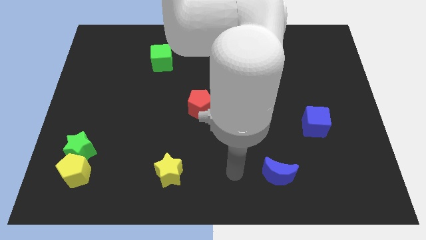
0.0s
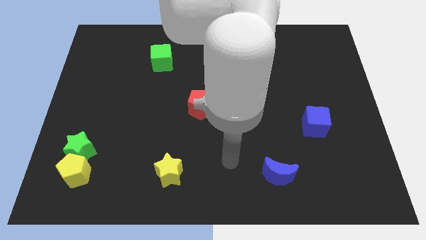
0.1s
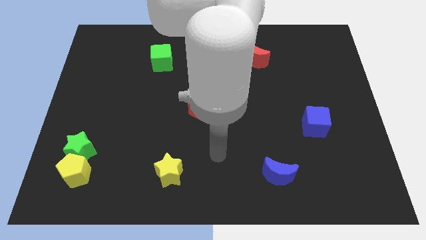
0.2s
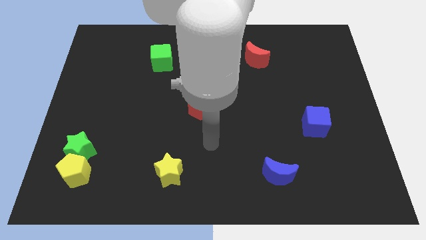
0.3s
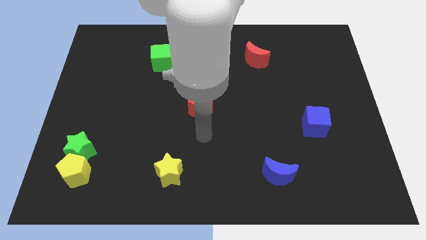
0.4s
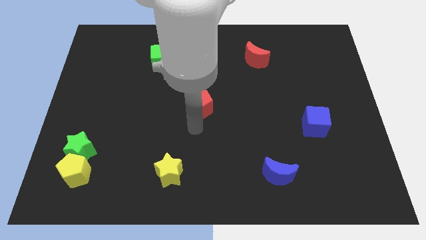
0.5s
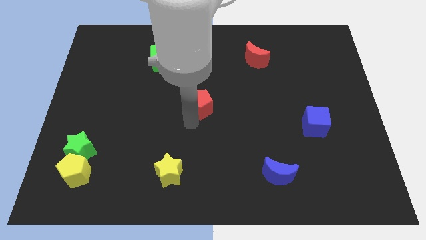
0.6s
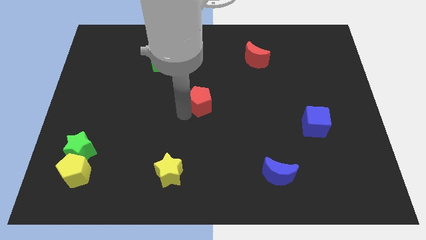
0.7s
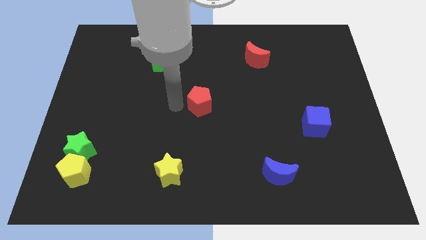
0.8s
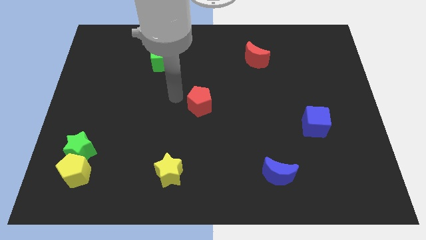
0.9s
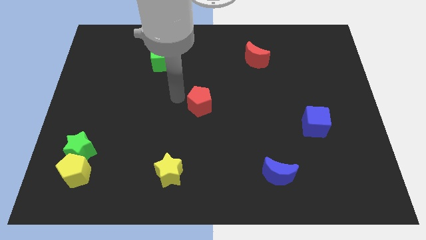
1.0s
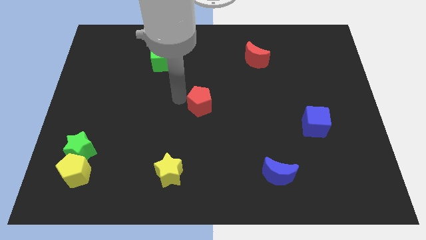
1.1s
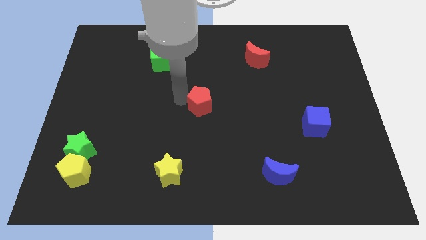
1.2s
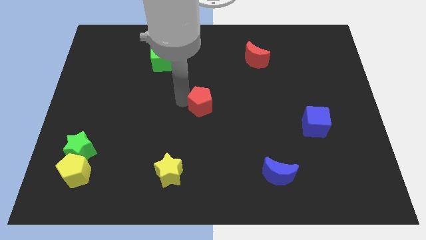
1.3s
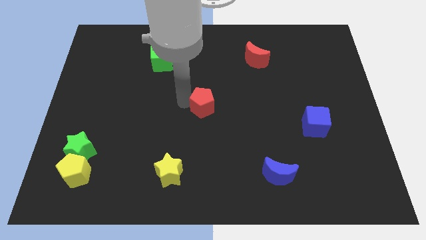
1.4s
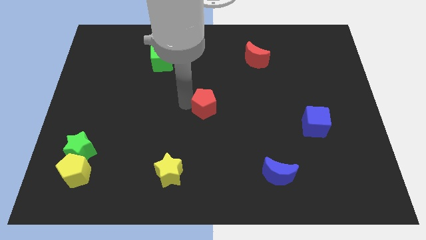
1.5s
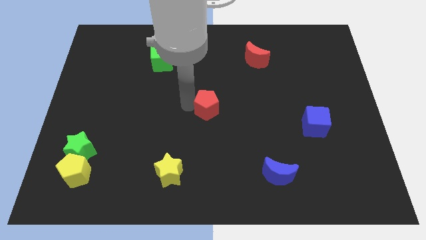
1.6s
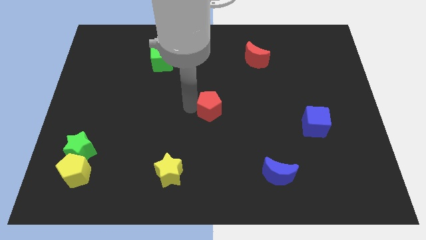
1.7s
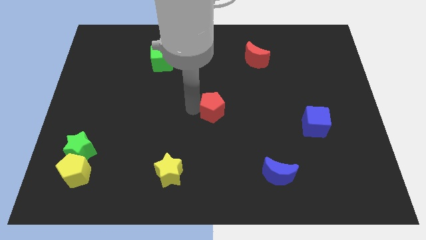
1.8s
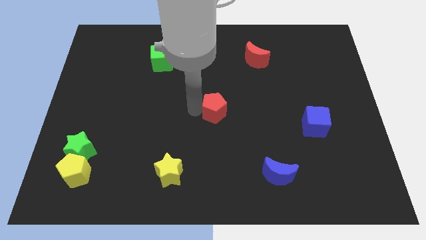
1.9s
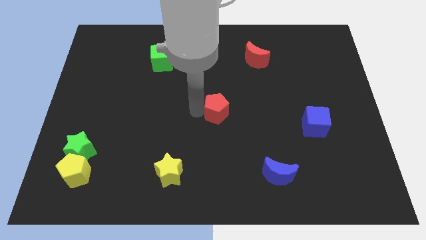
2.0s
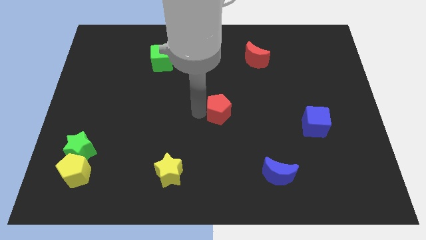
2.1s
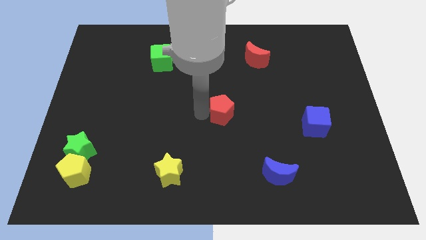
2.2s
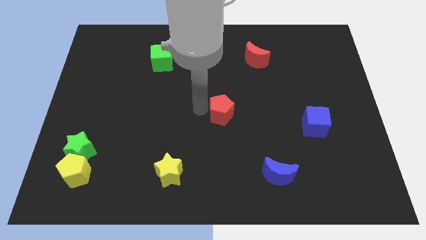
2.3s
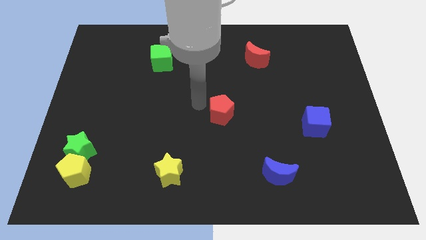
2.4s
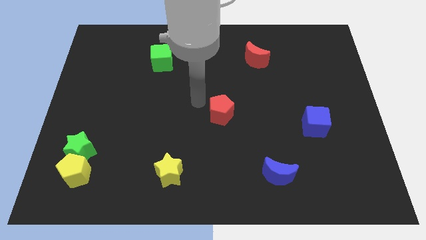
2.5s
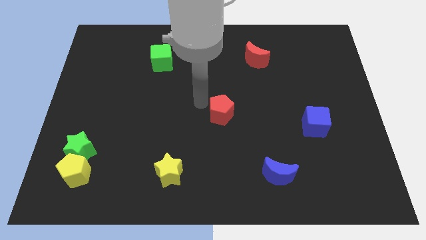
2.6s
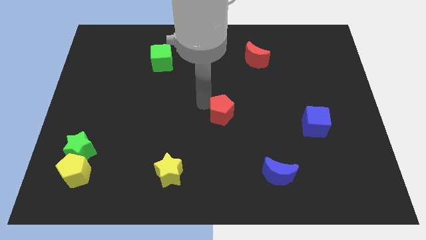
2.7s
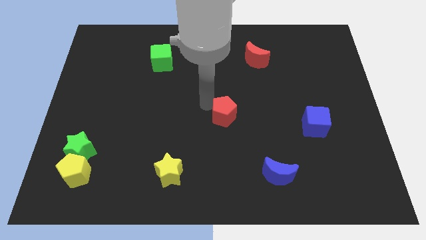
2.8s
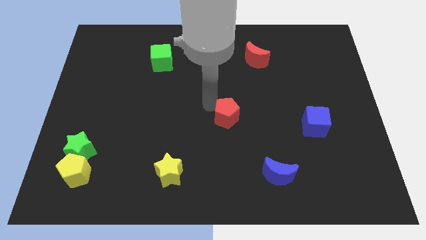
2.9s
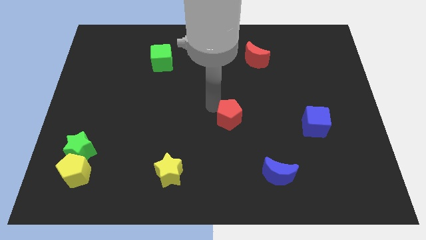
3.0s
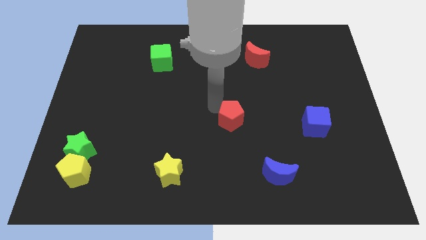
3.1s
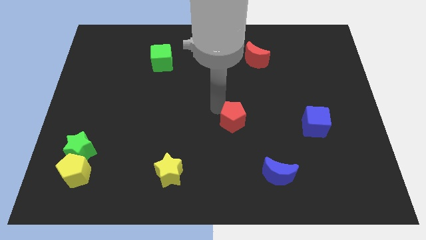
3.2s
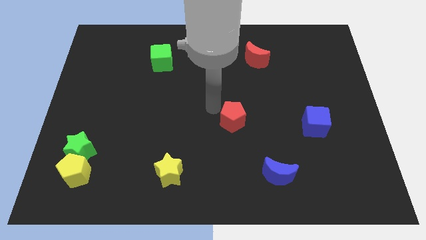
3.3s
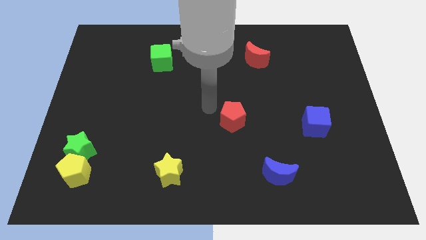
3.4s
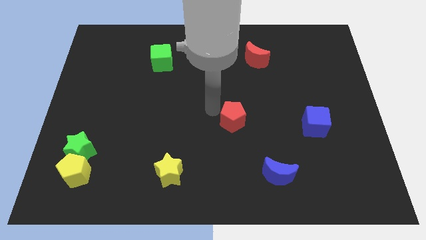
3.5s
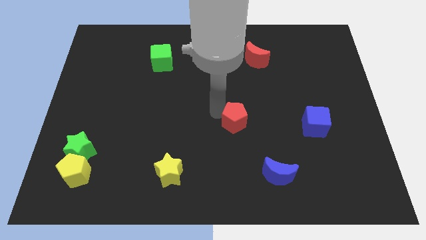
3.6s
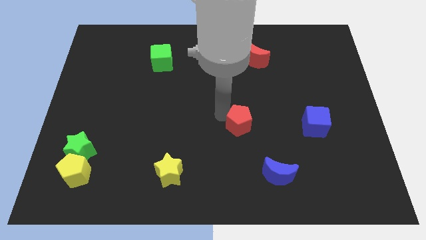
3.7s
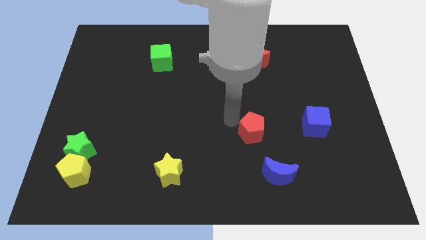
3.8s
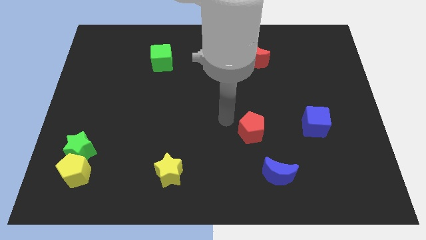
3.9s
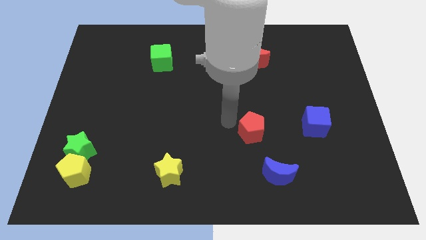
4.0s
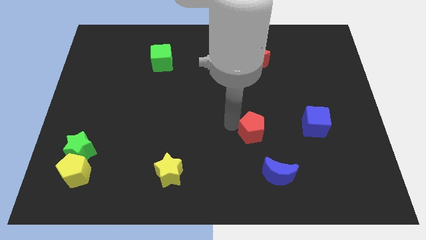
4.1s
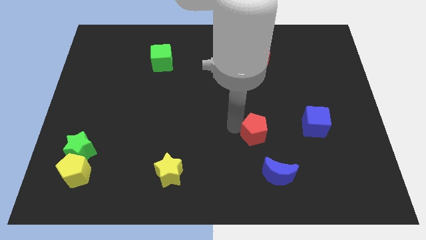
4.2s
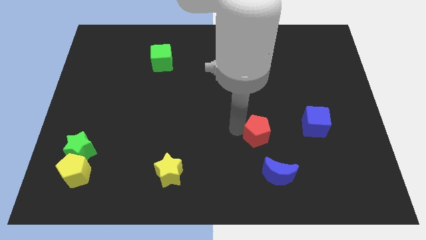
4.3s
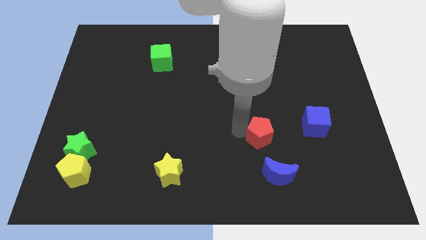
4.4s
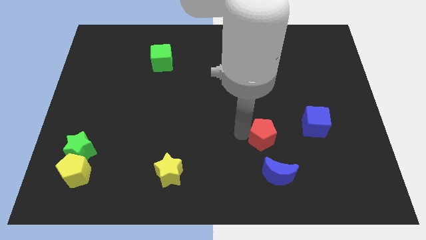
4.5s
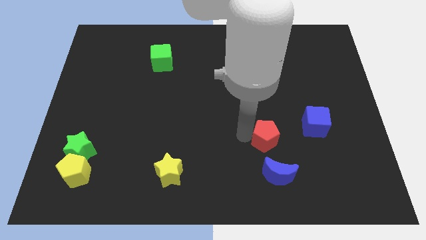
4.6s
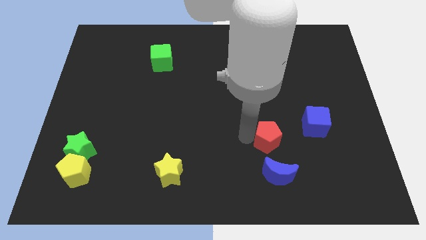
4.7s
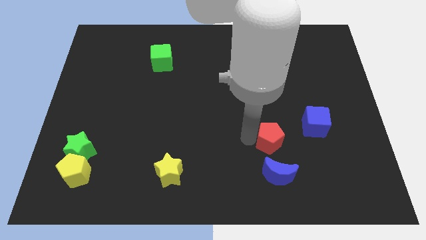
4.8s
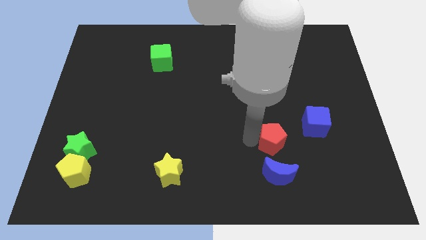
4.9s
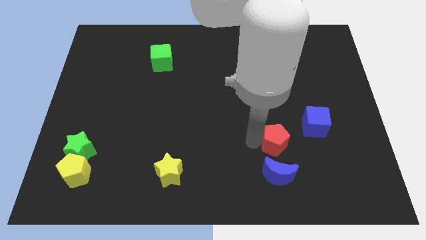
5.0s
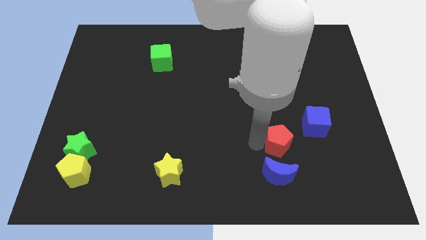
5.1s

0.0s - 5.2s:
move the red pentagon to the top right of the blue moon

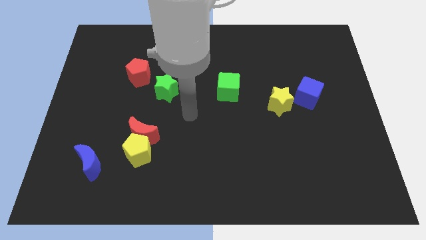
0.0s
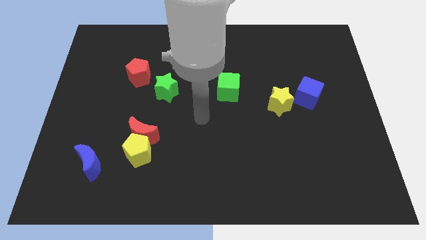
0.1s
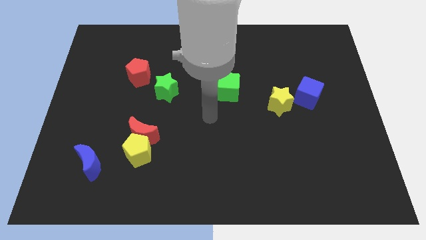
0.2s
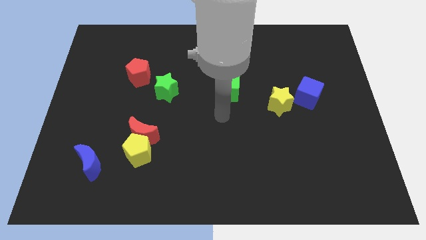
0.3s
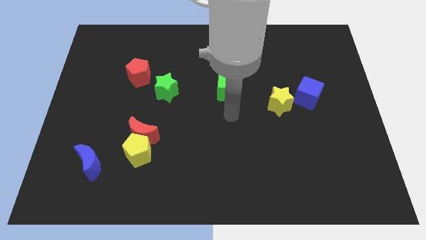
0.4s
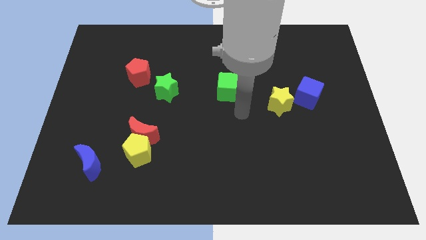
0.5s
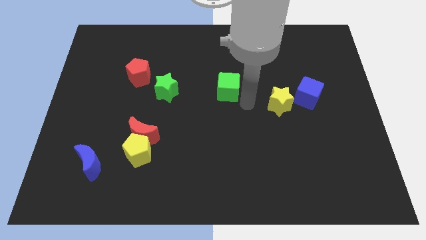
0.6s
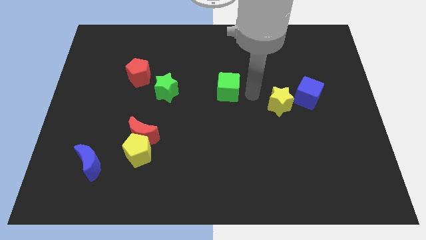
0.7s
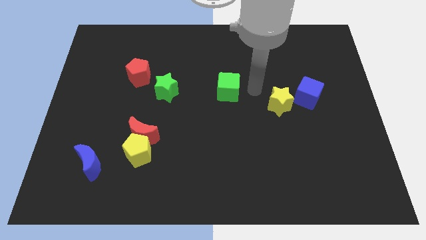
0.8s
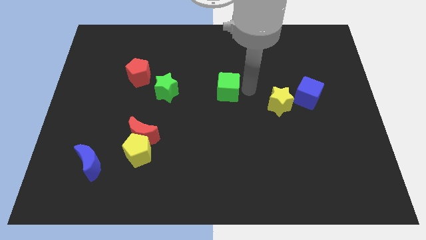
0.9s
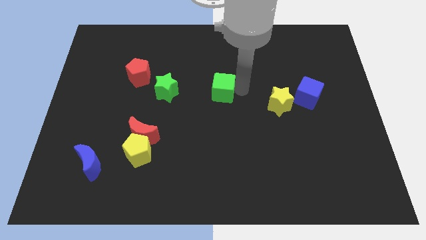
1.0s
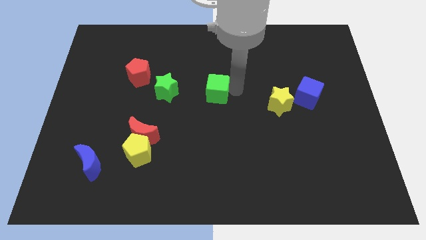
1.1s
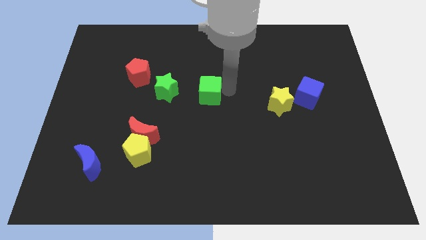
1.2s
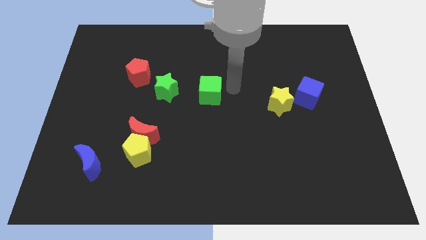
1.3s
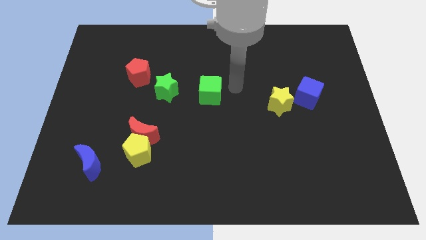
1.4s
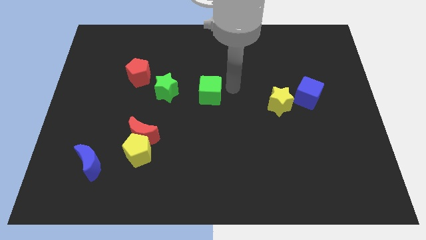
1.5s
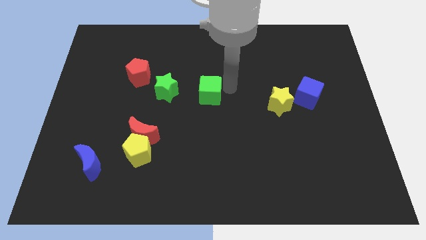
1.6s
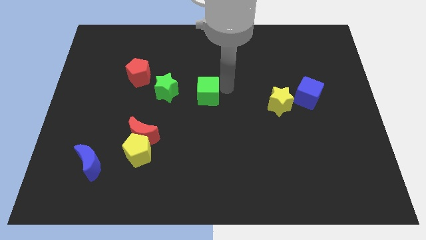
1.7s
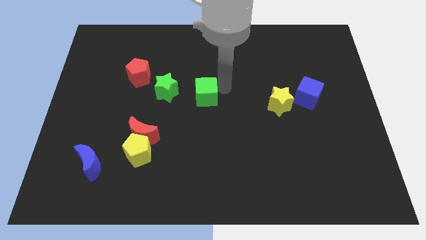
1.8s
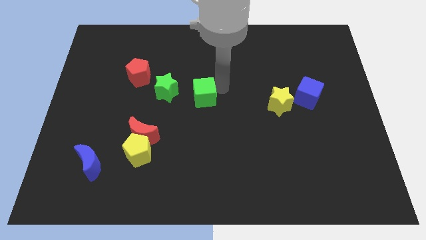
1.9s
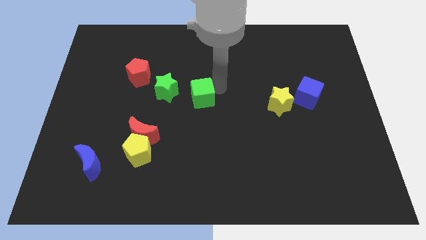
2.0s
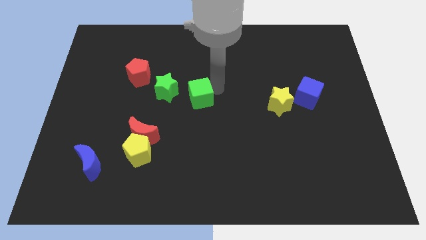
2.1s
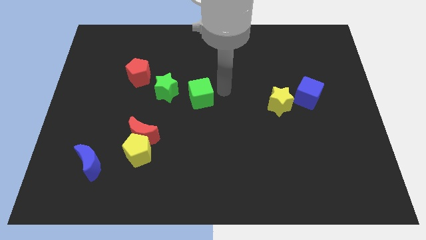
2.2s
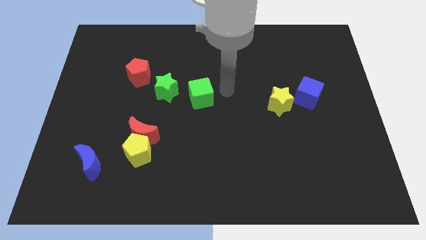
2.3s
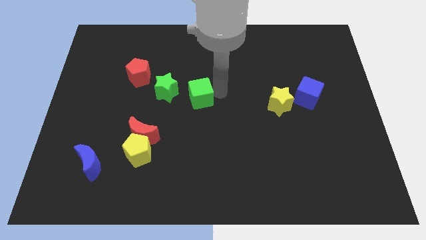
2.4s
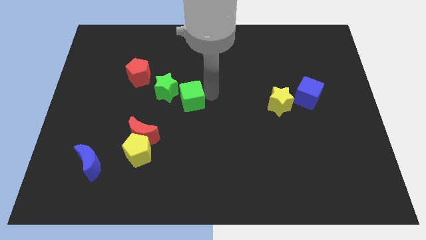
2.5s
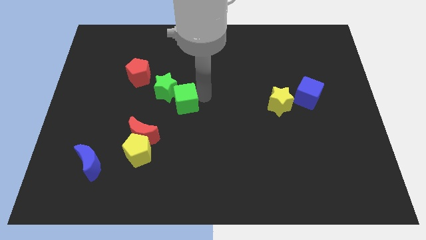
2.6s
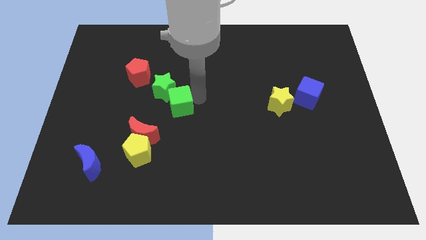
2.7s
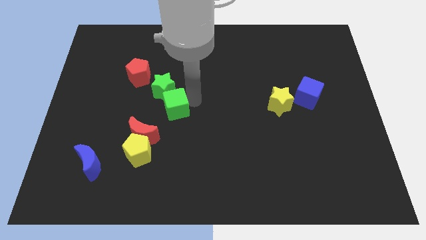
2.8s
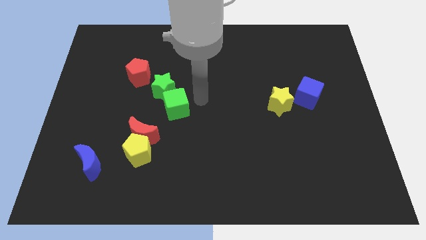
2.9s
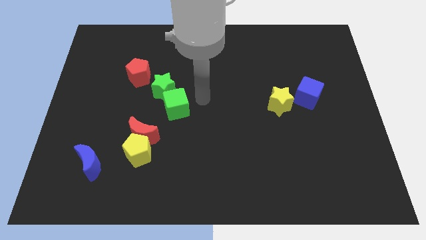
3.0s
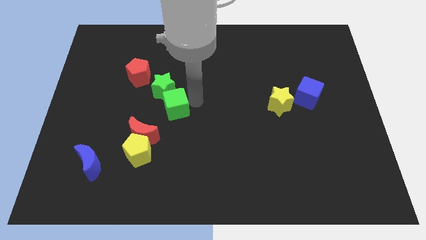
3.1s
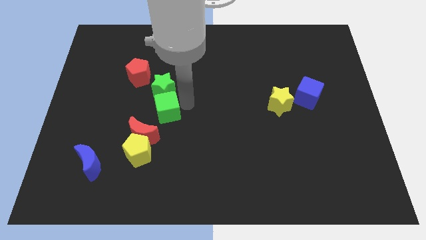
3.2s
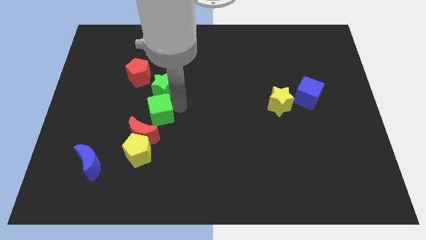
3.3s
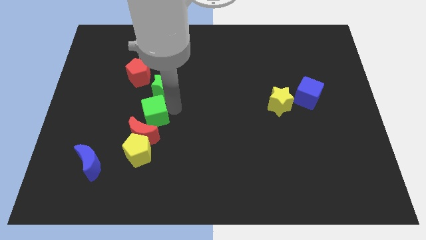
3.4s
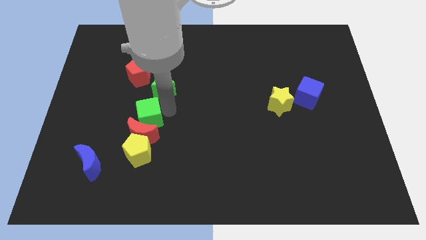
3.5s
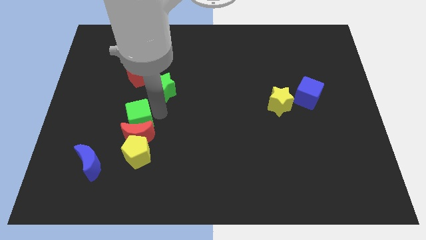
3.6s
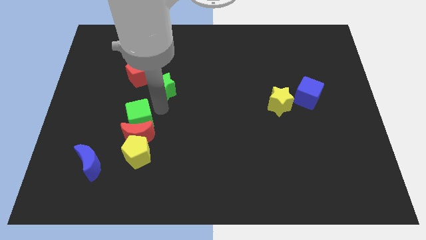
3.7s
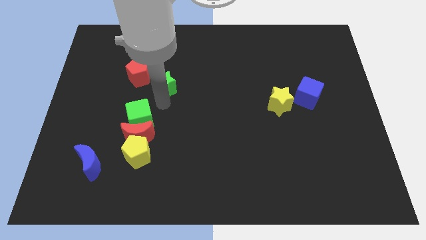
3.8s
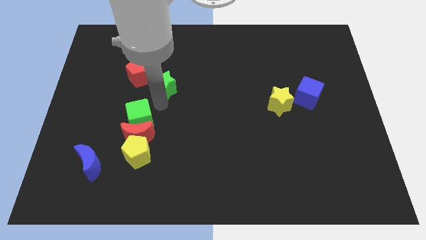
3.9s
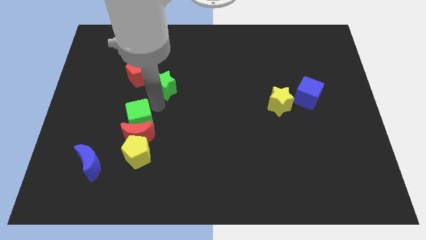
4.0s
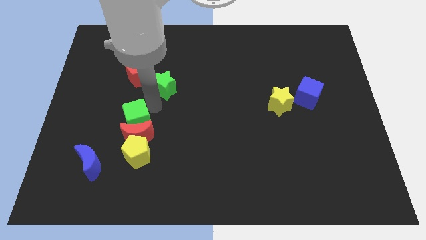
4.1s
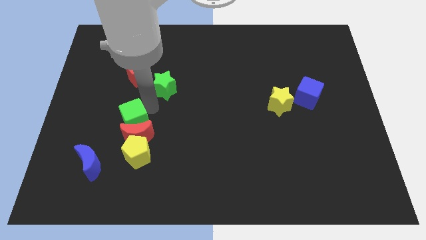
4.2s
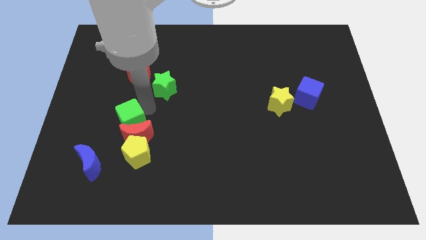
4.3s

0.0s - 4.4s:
push the green cube to the top left of the yellow pentagon
